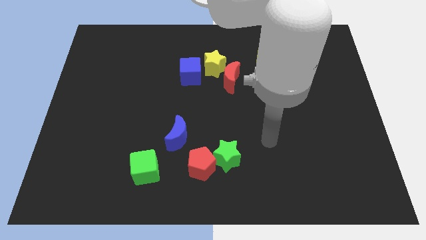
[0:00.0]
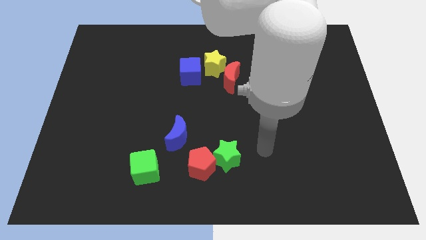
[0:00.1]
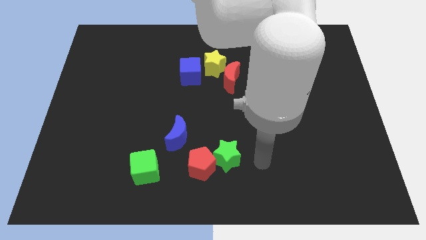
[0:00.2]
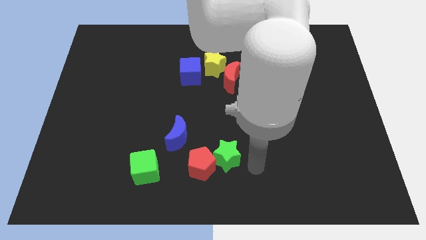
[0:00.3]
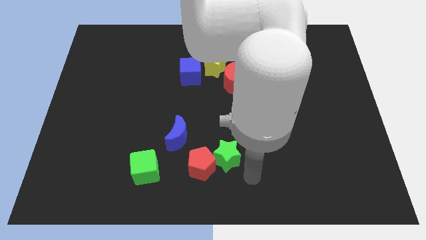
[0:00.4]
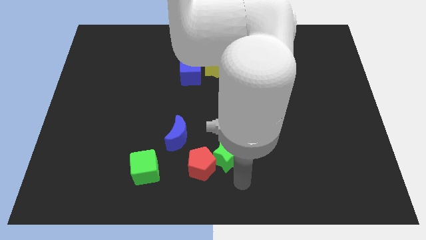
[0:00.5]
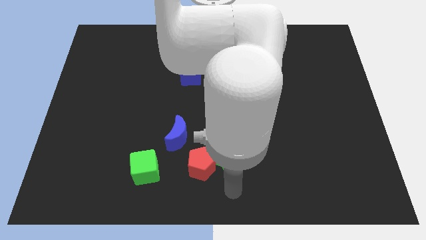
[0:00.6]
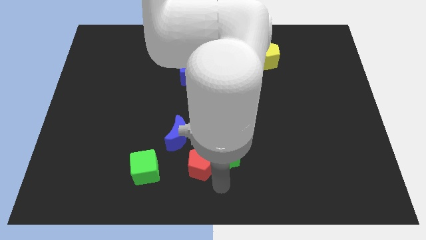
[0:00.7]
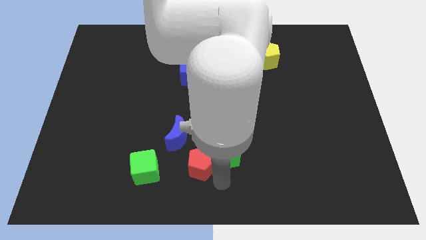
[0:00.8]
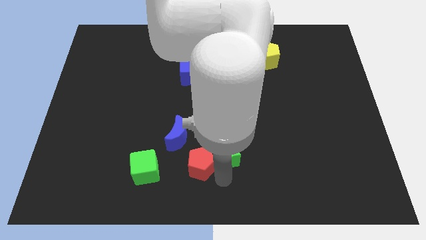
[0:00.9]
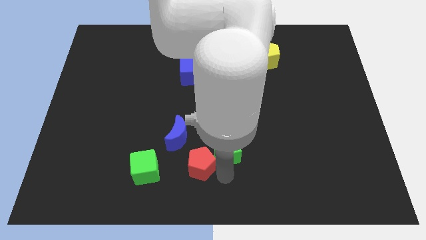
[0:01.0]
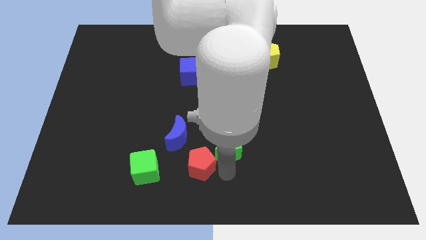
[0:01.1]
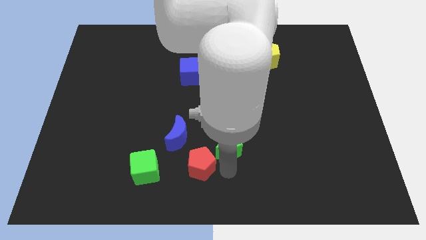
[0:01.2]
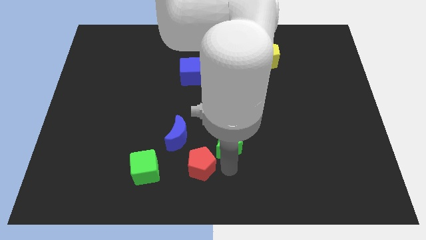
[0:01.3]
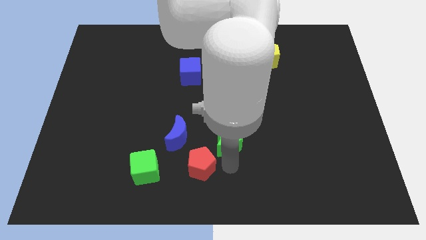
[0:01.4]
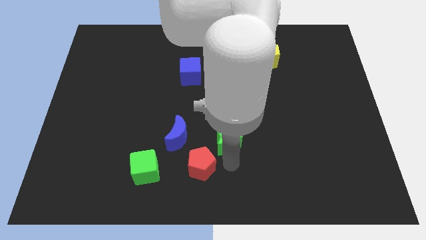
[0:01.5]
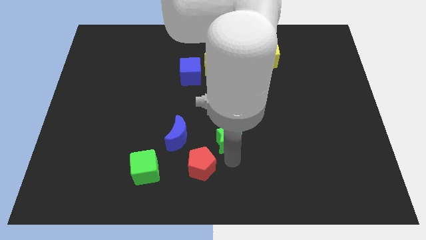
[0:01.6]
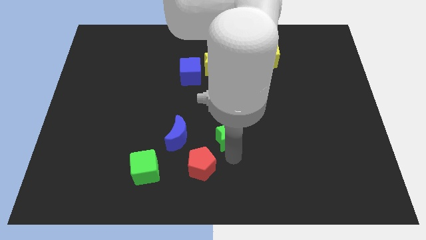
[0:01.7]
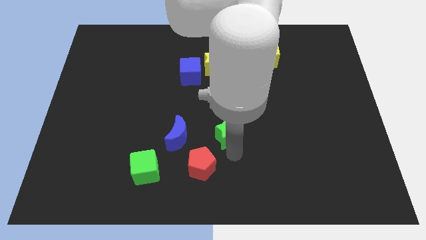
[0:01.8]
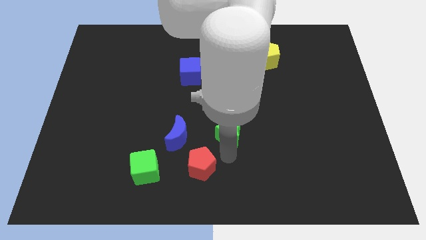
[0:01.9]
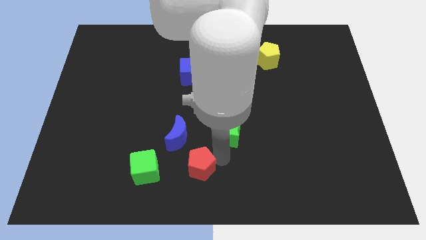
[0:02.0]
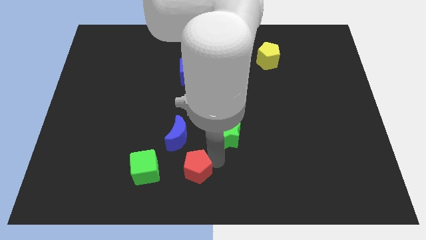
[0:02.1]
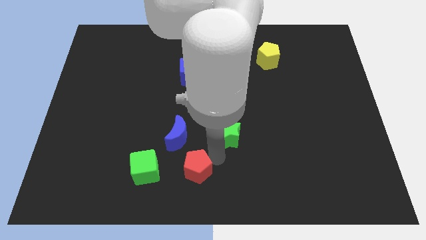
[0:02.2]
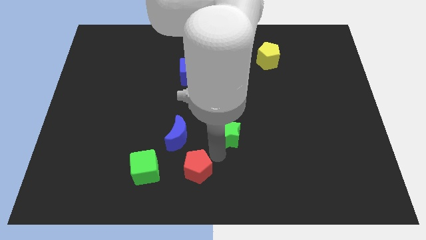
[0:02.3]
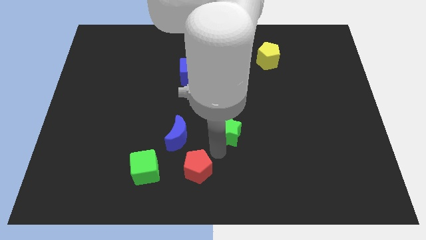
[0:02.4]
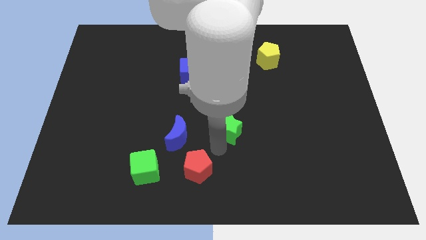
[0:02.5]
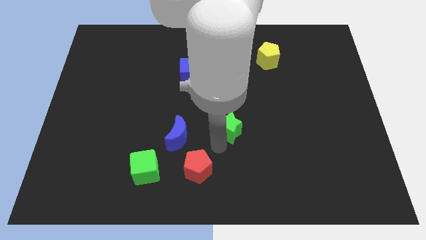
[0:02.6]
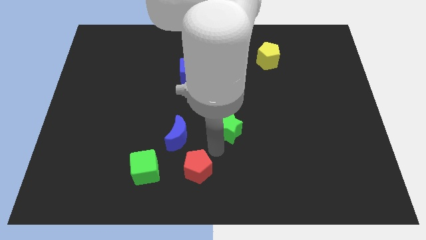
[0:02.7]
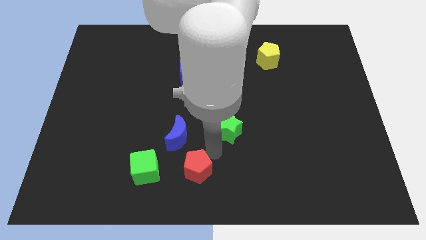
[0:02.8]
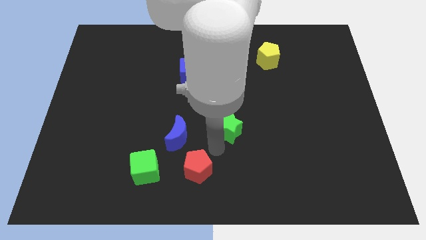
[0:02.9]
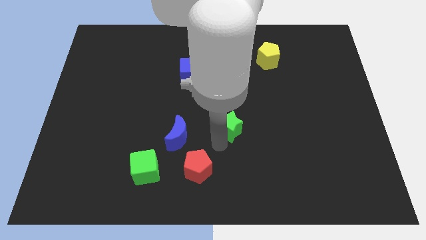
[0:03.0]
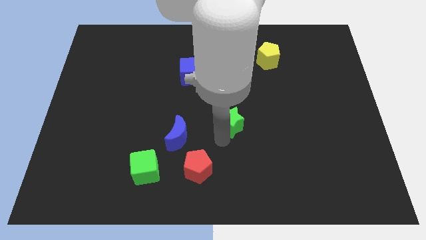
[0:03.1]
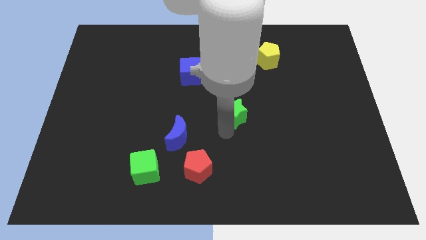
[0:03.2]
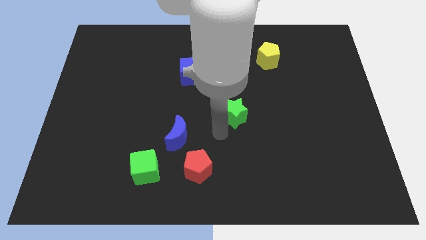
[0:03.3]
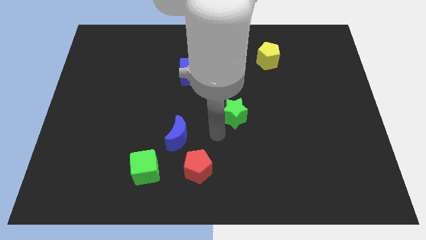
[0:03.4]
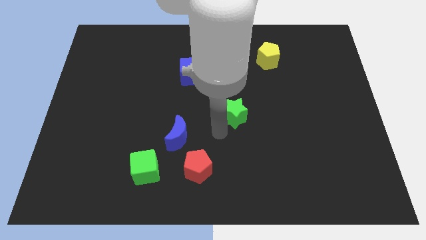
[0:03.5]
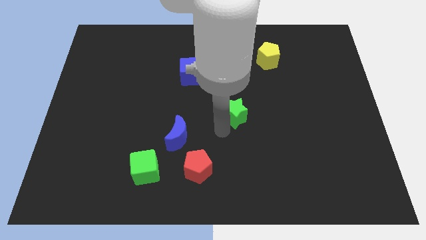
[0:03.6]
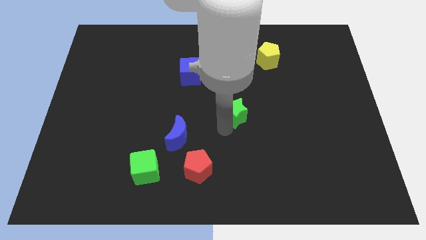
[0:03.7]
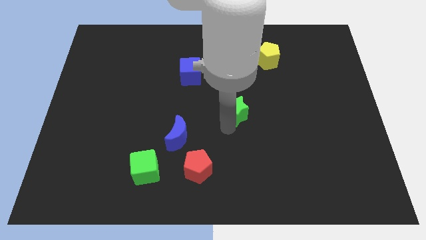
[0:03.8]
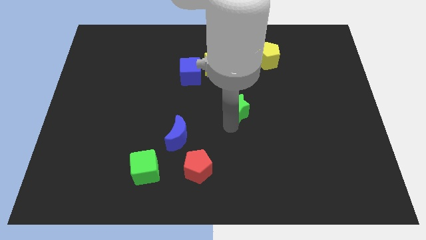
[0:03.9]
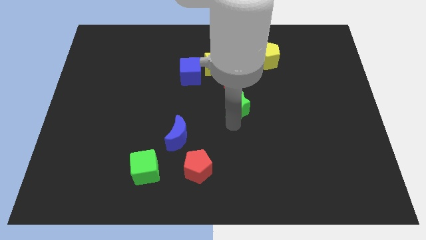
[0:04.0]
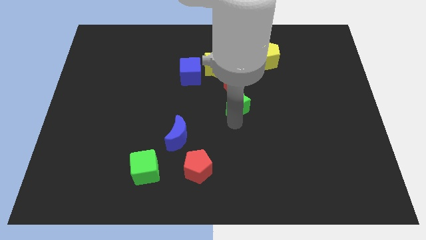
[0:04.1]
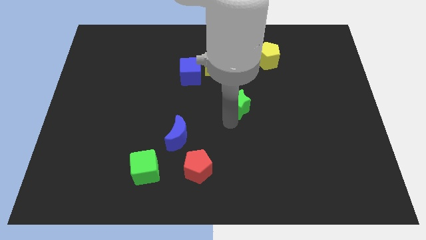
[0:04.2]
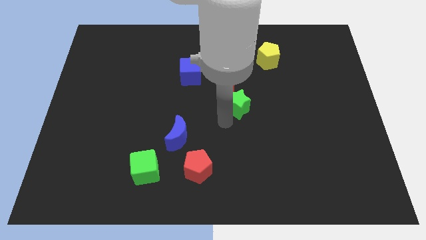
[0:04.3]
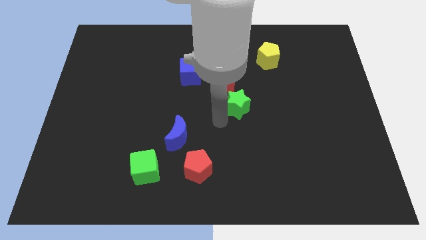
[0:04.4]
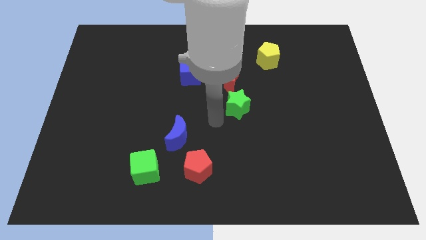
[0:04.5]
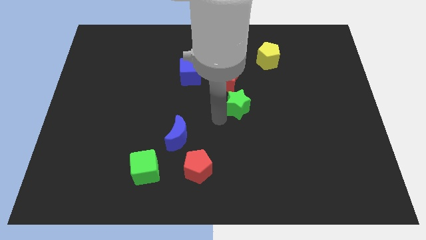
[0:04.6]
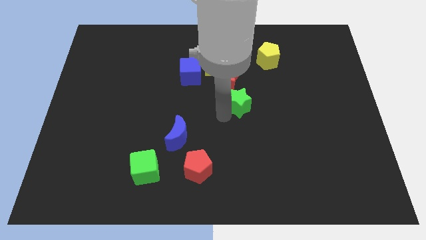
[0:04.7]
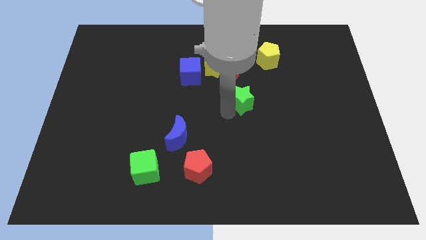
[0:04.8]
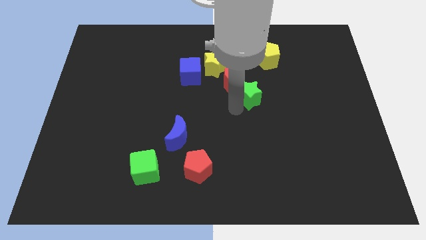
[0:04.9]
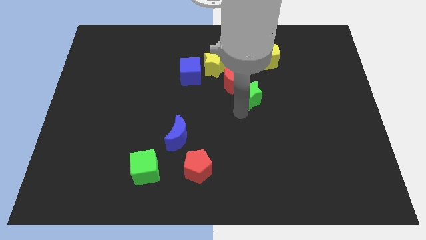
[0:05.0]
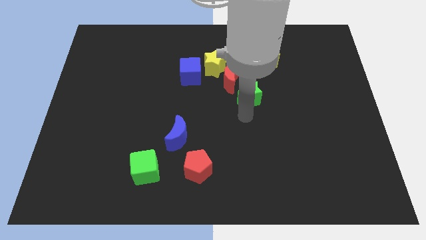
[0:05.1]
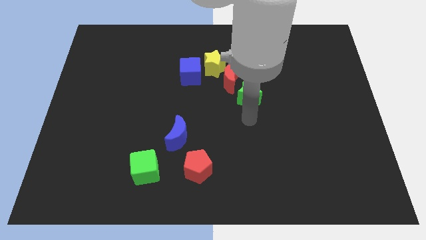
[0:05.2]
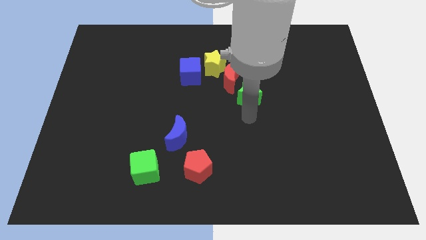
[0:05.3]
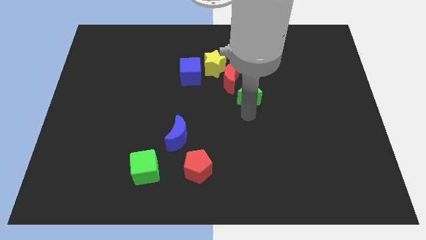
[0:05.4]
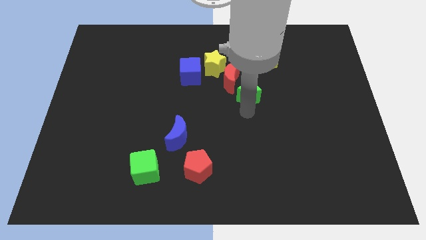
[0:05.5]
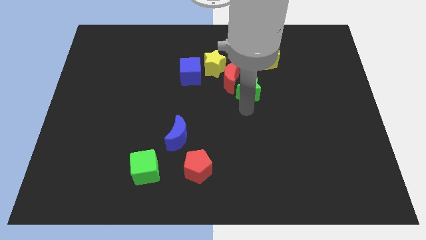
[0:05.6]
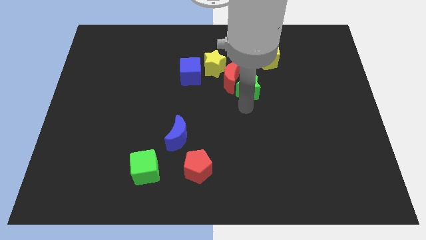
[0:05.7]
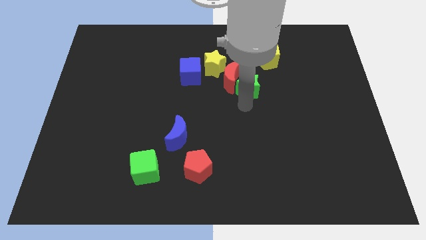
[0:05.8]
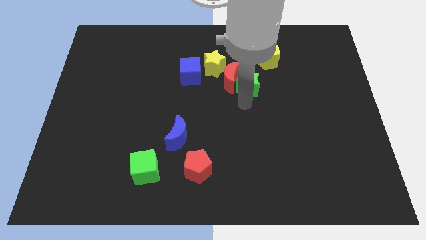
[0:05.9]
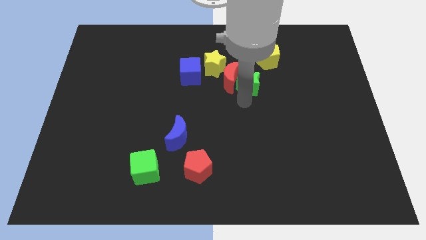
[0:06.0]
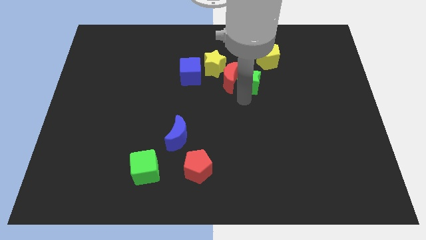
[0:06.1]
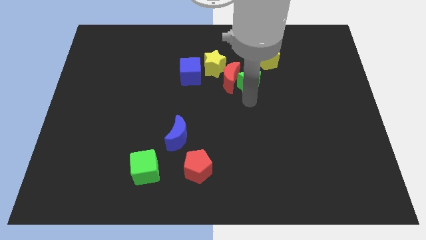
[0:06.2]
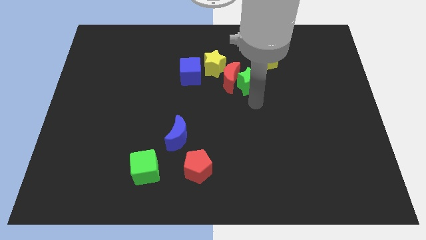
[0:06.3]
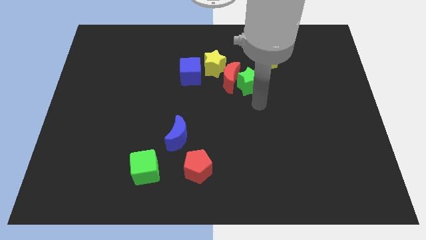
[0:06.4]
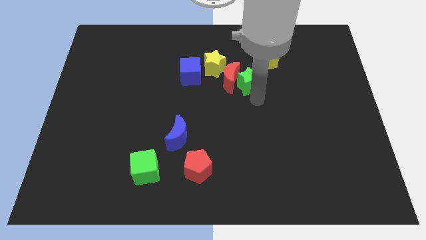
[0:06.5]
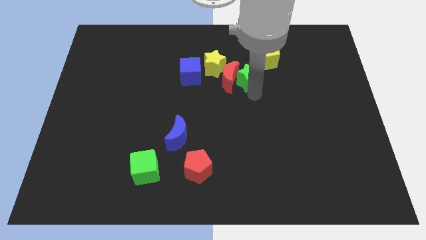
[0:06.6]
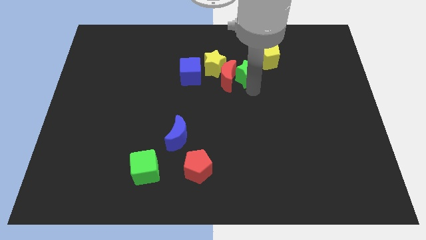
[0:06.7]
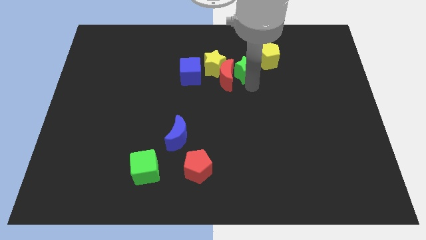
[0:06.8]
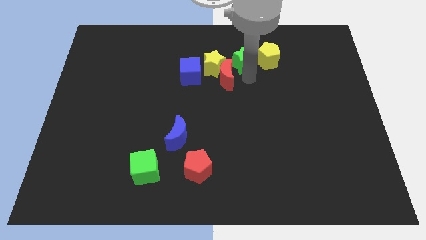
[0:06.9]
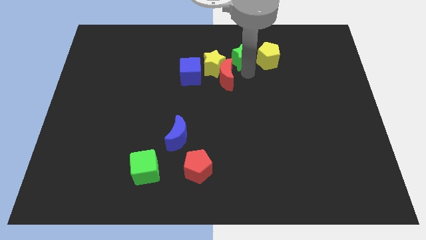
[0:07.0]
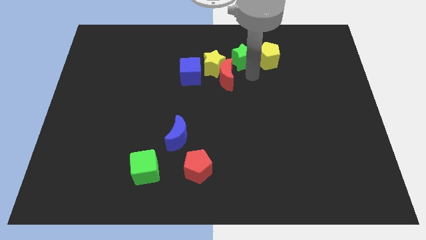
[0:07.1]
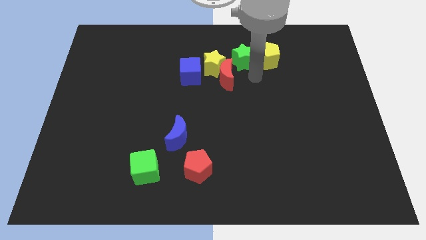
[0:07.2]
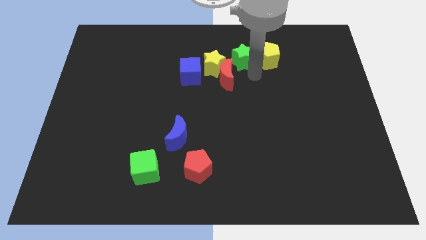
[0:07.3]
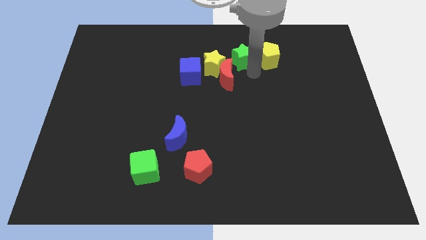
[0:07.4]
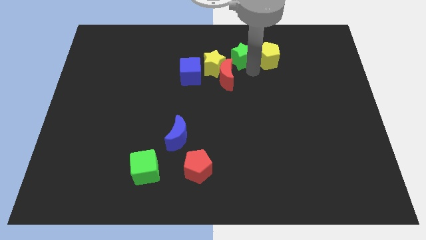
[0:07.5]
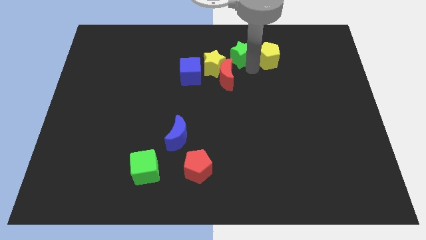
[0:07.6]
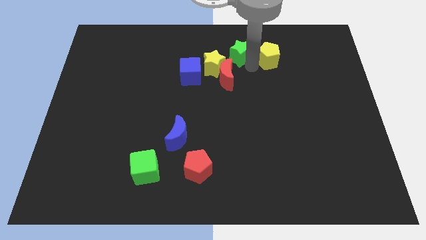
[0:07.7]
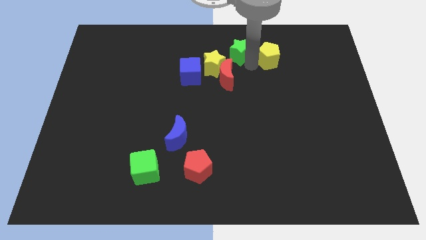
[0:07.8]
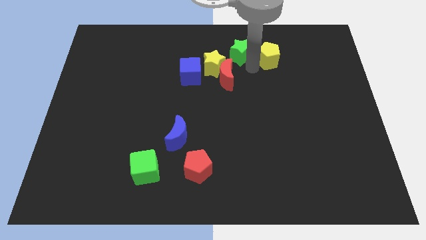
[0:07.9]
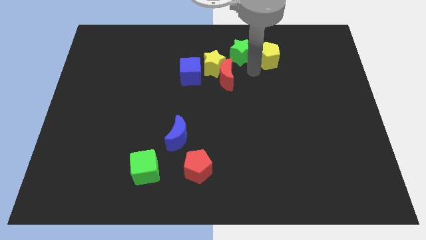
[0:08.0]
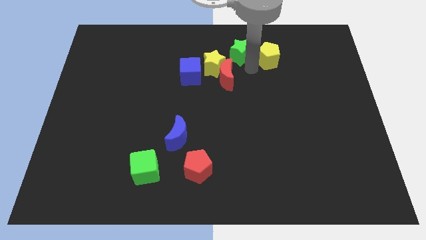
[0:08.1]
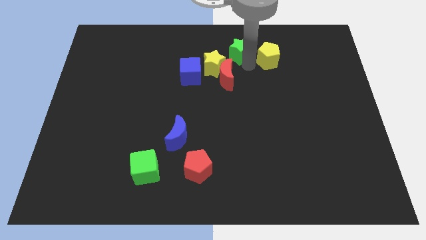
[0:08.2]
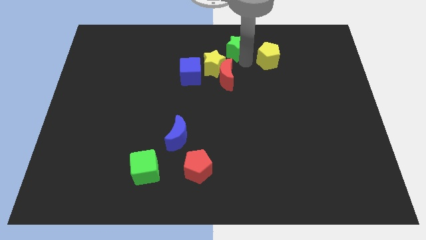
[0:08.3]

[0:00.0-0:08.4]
put the green star to the towards your base
